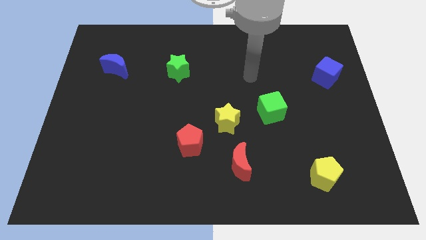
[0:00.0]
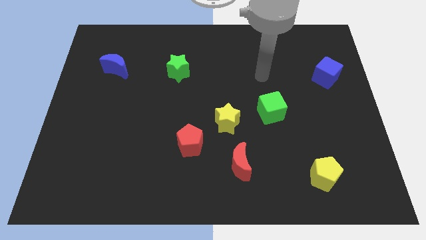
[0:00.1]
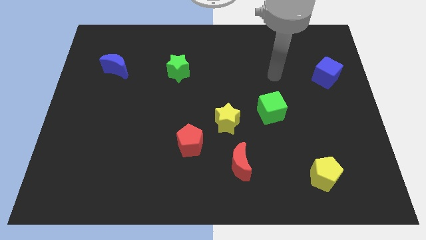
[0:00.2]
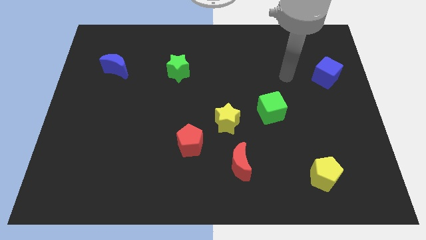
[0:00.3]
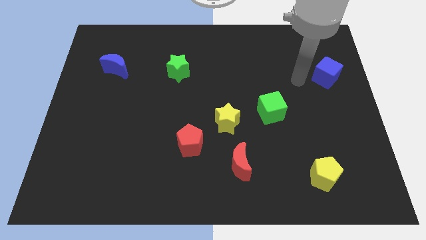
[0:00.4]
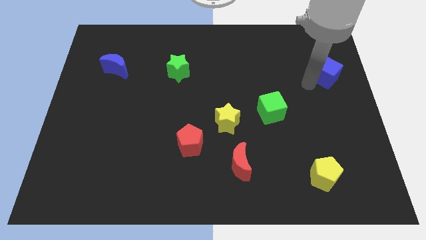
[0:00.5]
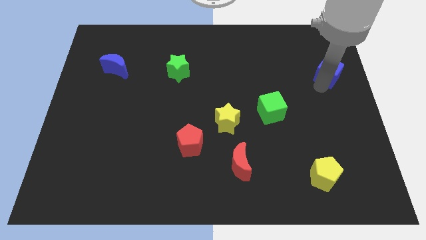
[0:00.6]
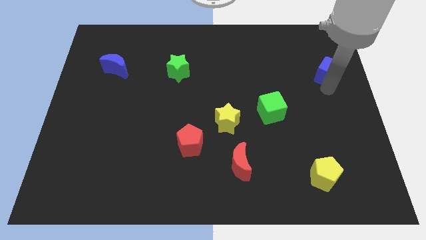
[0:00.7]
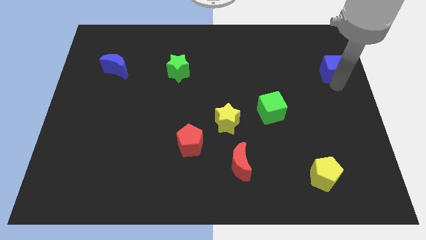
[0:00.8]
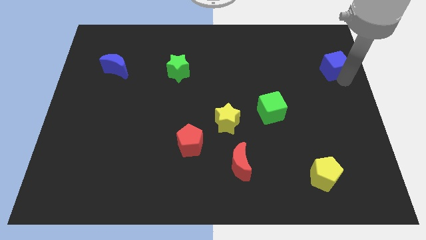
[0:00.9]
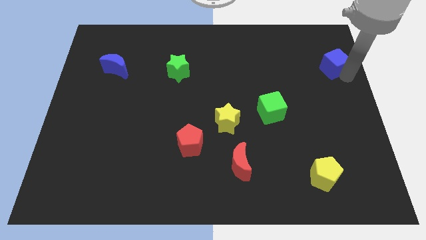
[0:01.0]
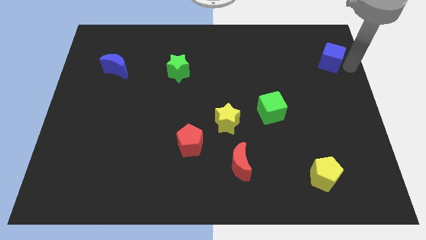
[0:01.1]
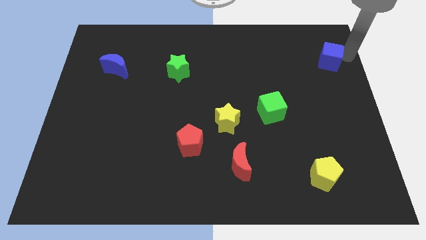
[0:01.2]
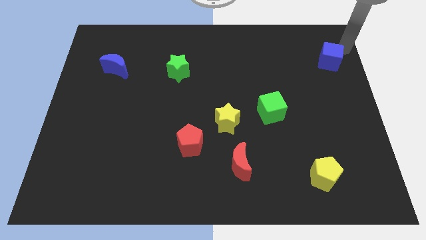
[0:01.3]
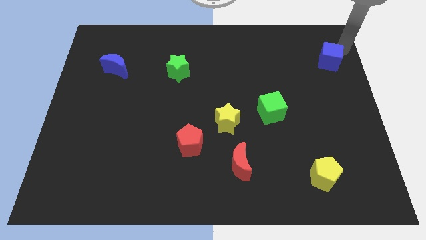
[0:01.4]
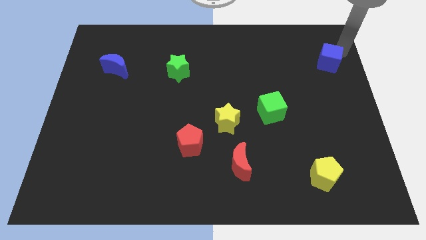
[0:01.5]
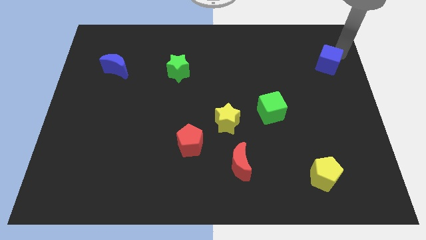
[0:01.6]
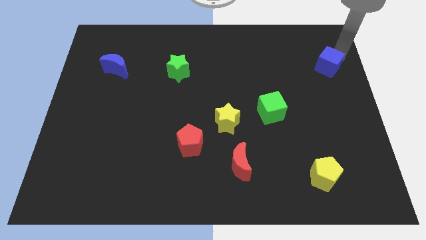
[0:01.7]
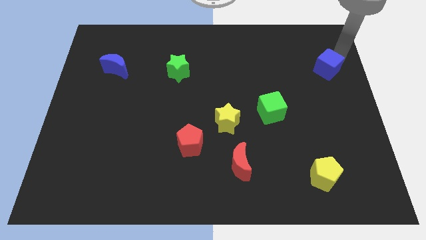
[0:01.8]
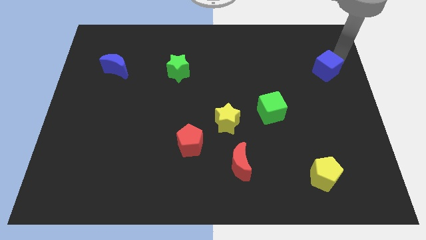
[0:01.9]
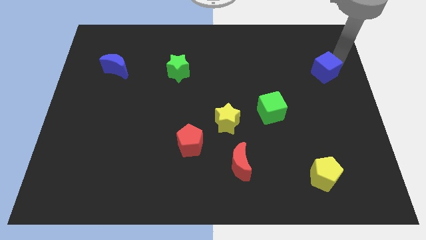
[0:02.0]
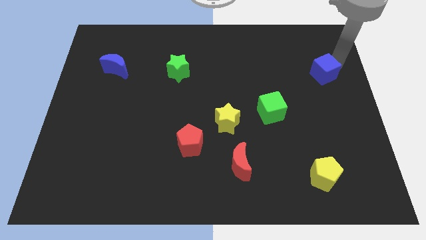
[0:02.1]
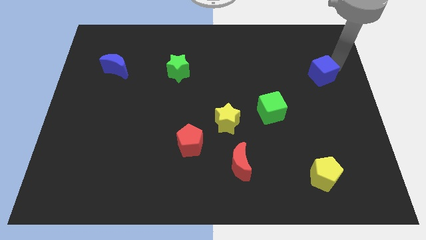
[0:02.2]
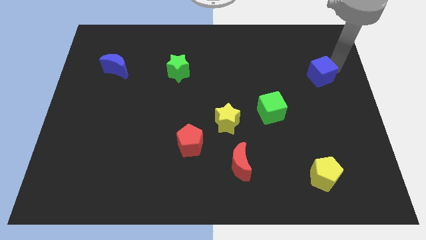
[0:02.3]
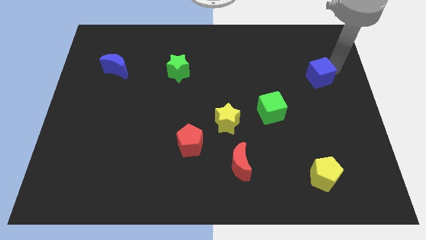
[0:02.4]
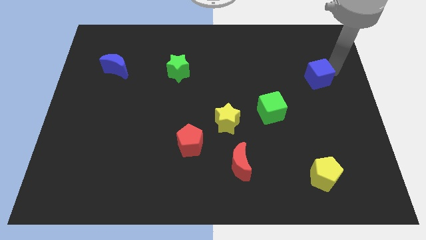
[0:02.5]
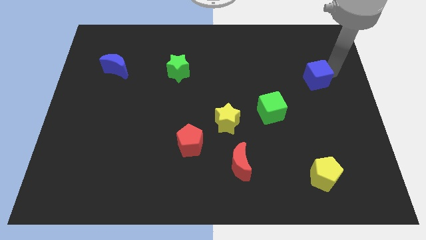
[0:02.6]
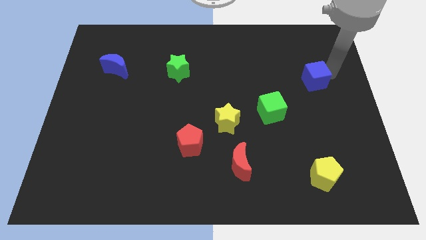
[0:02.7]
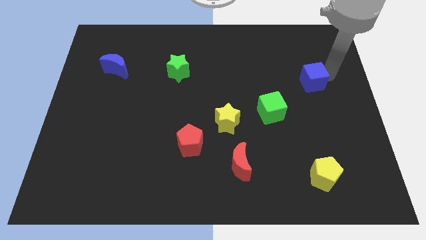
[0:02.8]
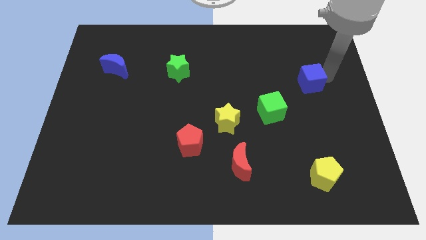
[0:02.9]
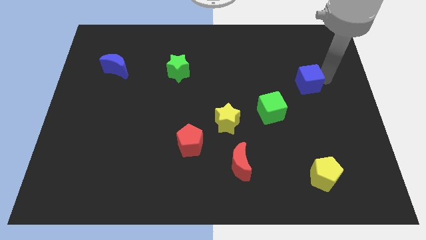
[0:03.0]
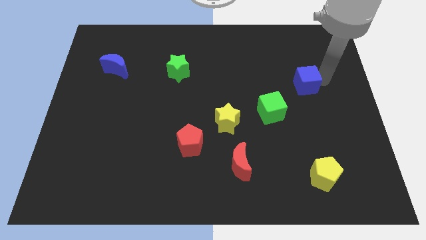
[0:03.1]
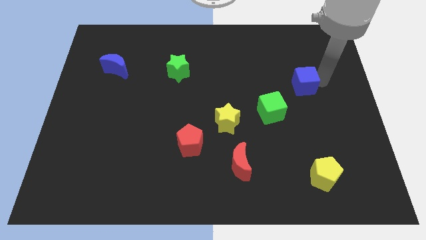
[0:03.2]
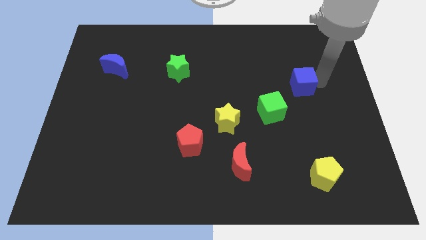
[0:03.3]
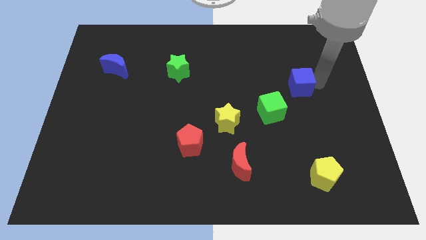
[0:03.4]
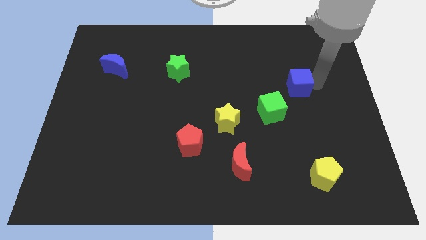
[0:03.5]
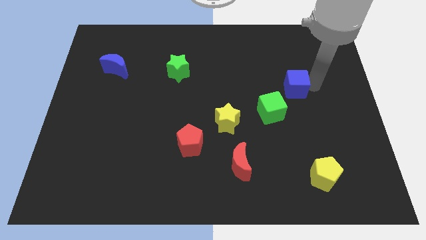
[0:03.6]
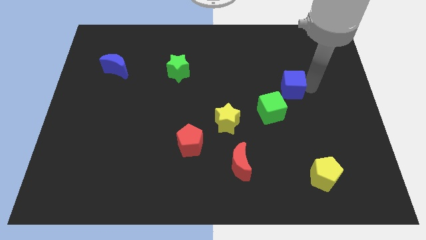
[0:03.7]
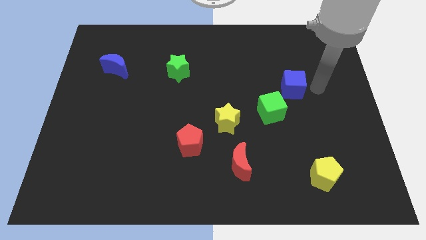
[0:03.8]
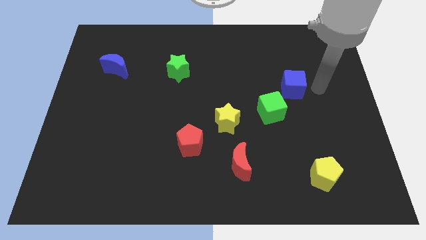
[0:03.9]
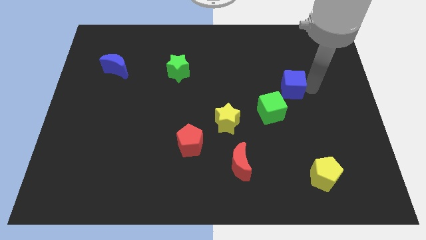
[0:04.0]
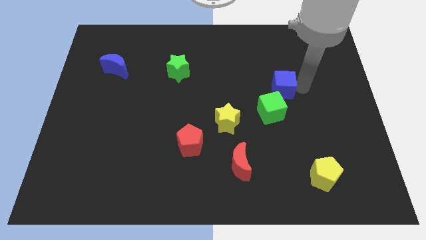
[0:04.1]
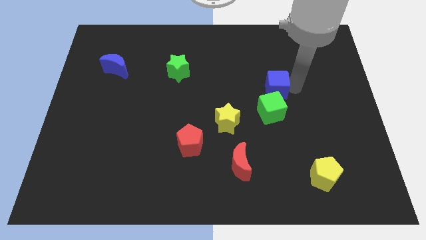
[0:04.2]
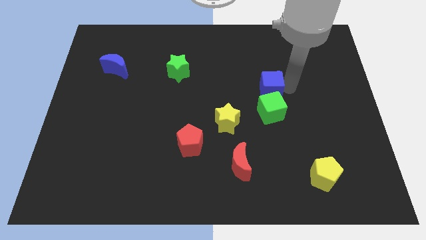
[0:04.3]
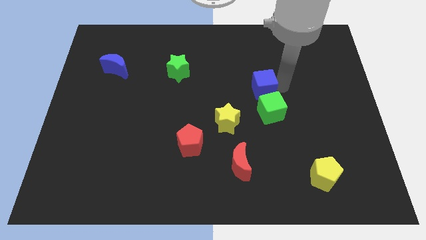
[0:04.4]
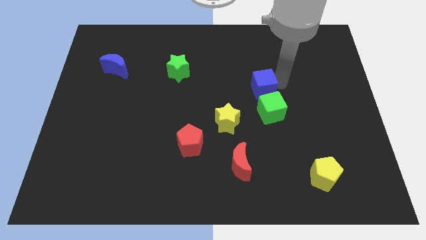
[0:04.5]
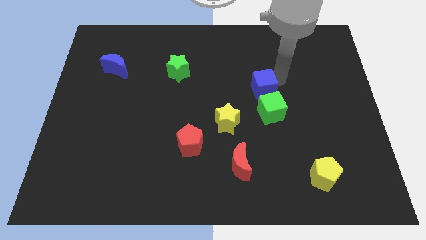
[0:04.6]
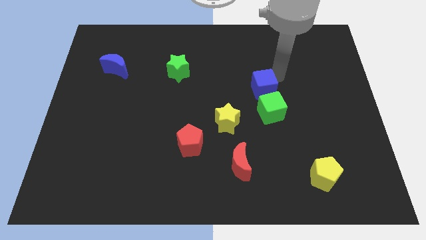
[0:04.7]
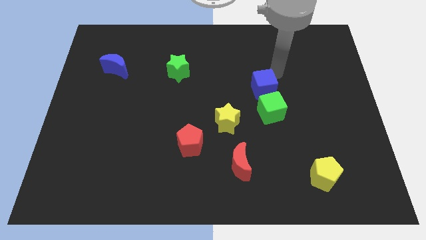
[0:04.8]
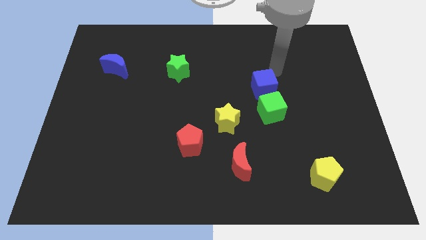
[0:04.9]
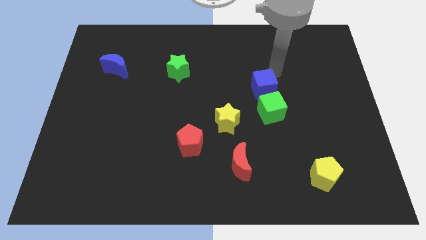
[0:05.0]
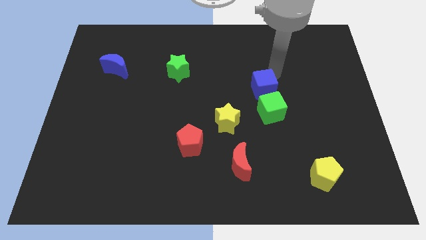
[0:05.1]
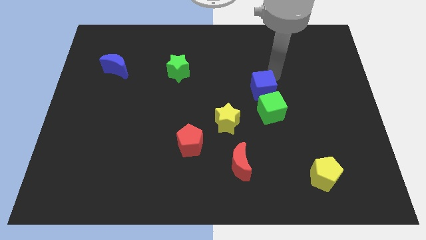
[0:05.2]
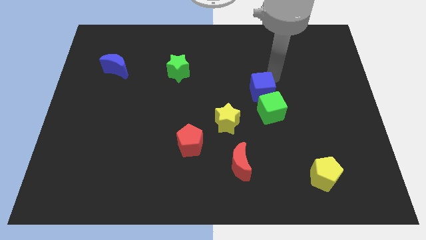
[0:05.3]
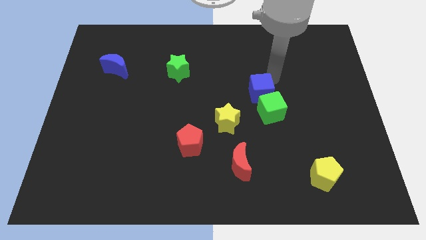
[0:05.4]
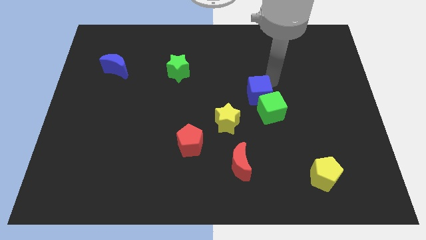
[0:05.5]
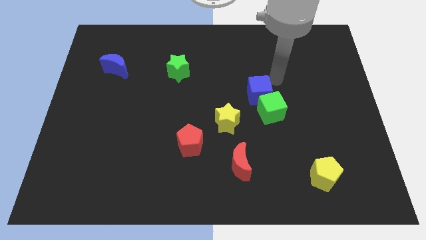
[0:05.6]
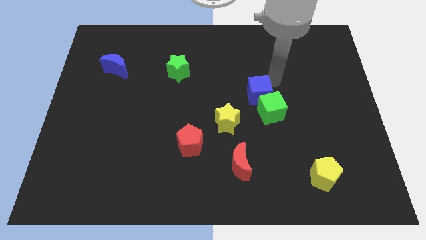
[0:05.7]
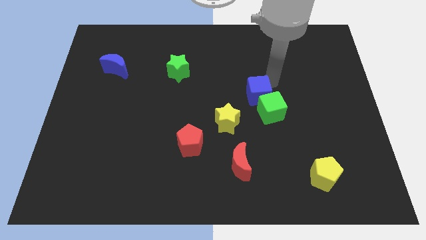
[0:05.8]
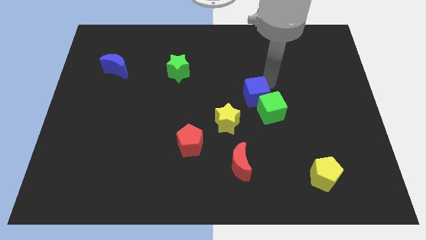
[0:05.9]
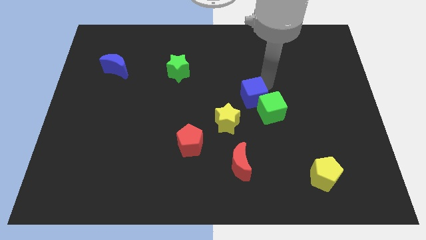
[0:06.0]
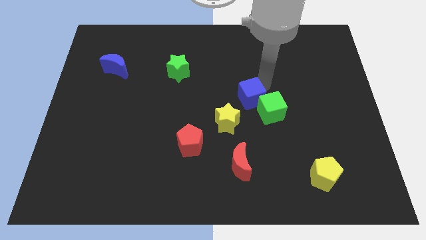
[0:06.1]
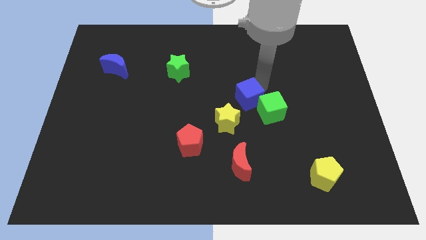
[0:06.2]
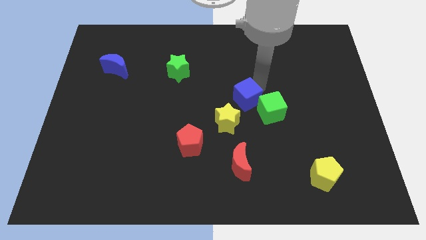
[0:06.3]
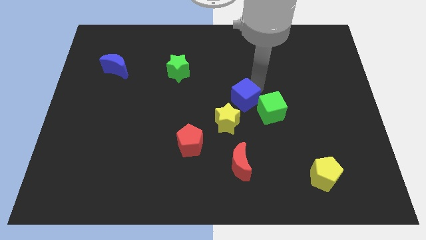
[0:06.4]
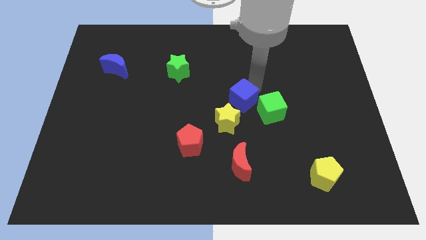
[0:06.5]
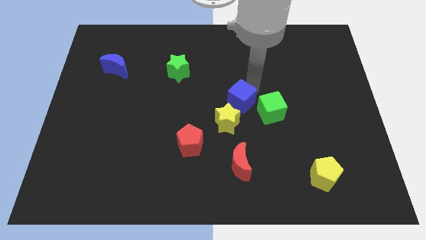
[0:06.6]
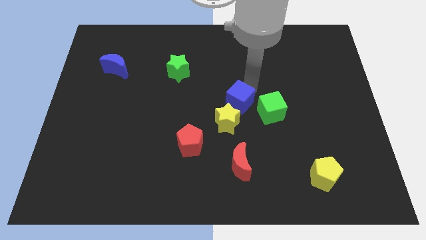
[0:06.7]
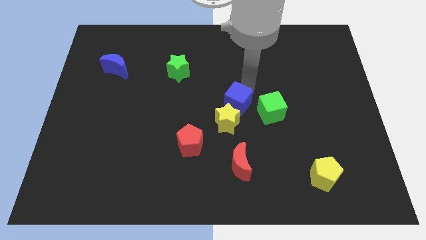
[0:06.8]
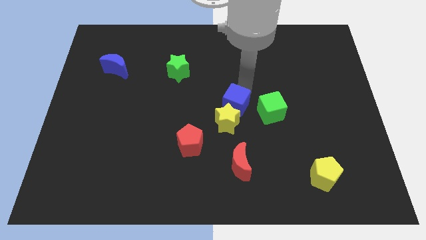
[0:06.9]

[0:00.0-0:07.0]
put the blue cube to the top of the red moon
